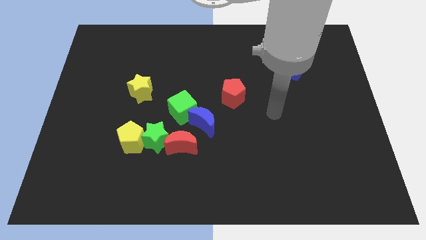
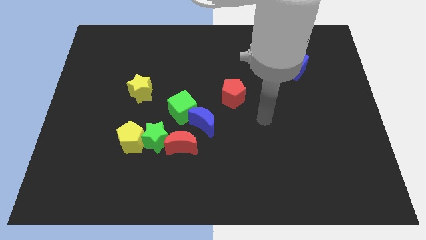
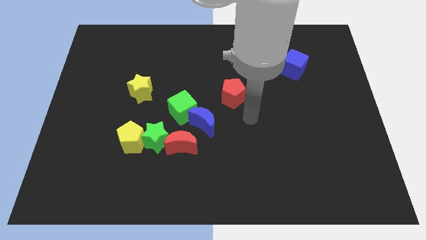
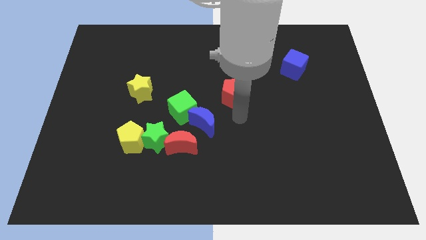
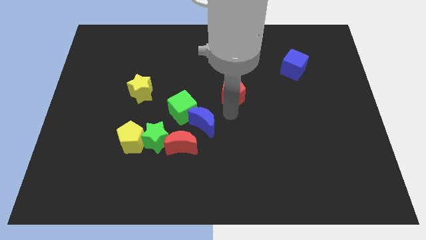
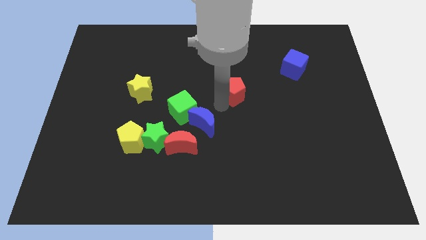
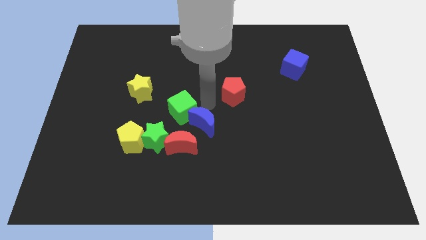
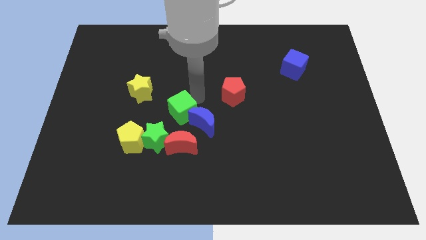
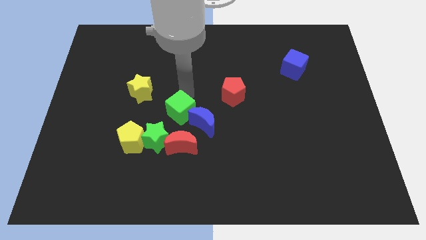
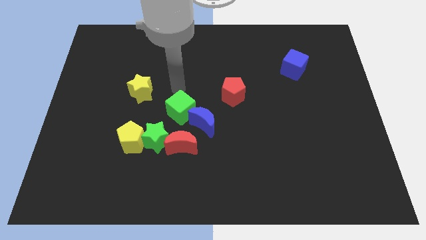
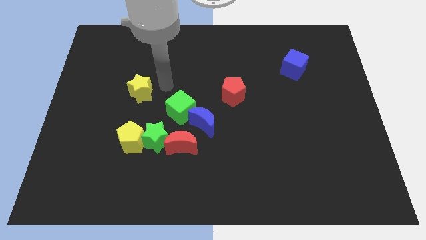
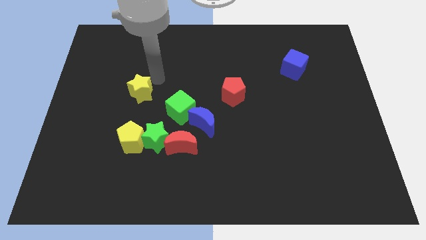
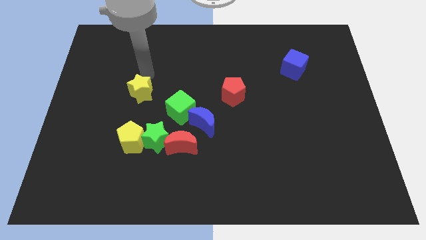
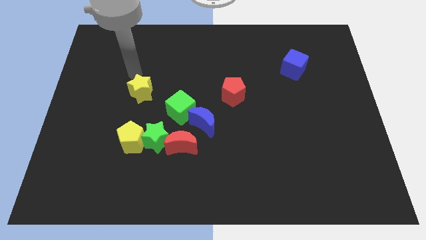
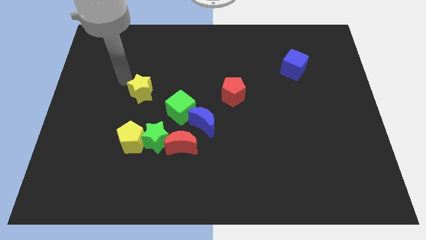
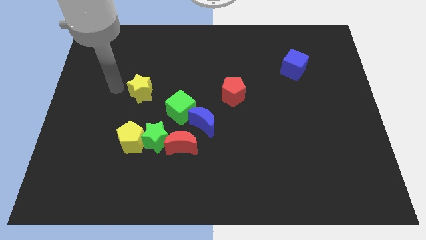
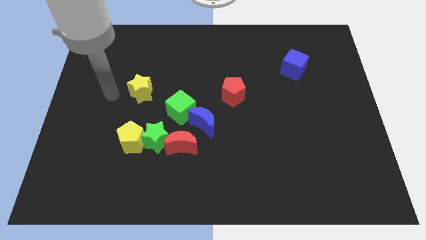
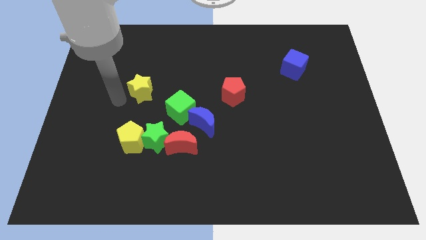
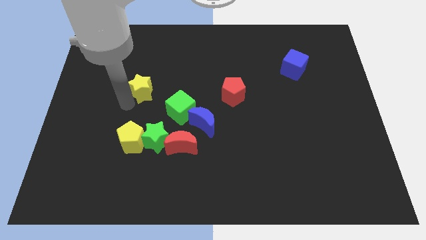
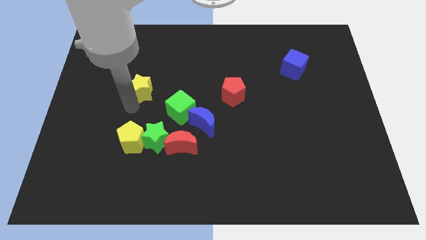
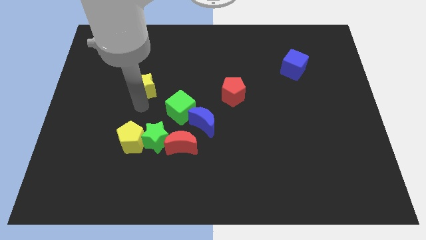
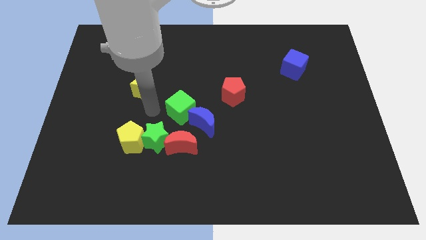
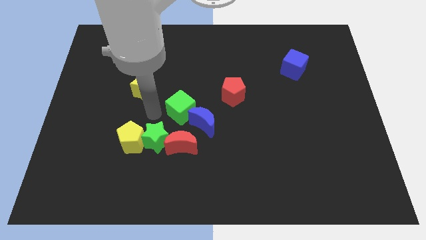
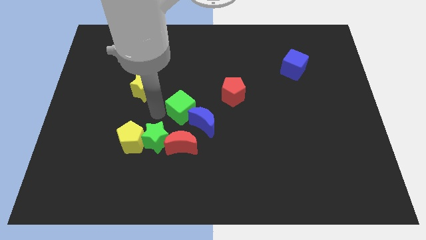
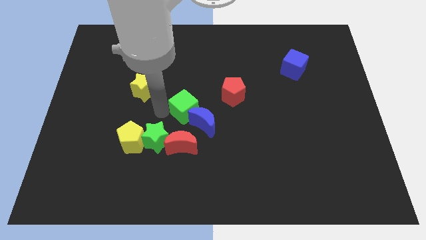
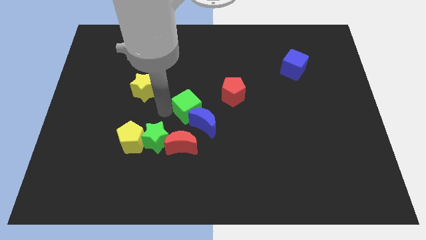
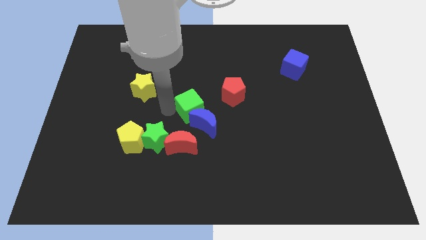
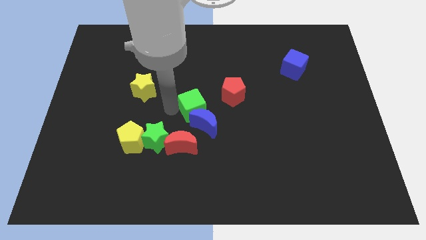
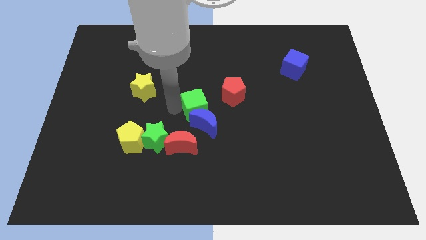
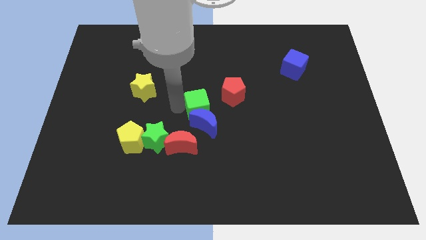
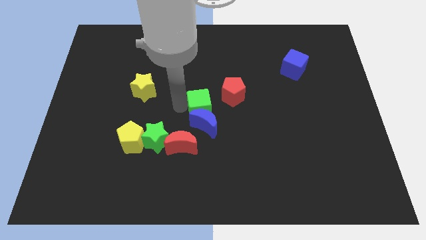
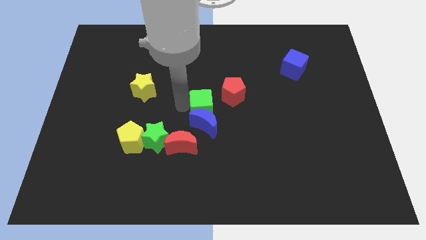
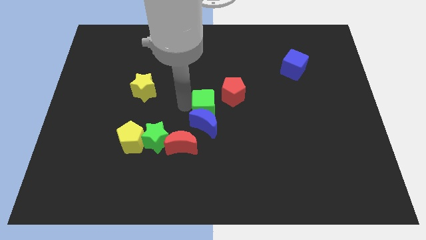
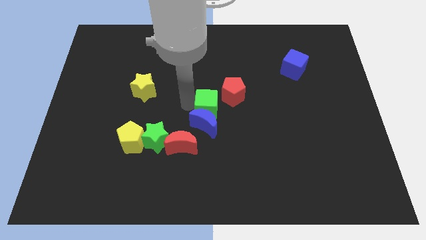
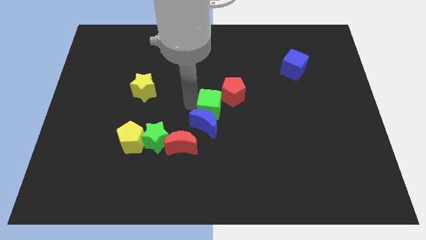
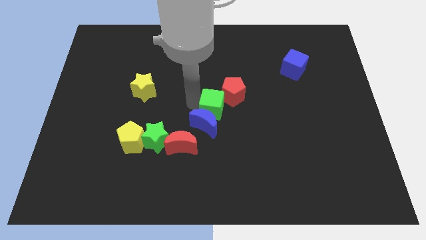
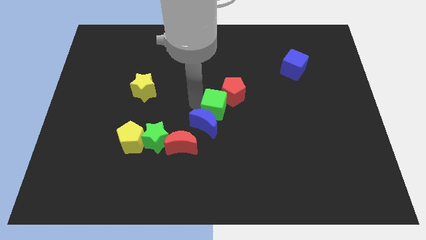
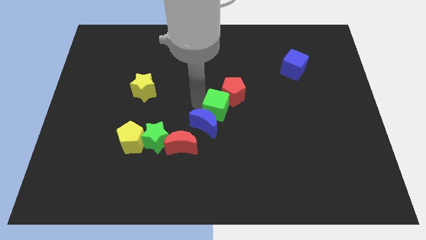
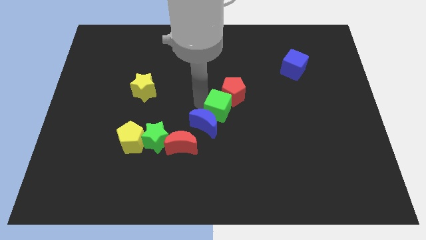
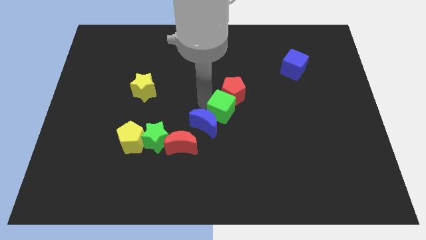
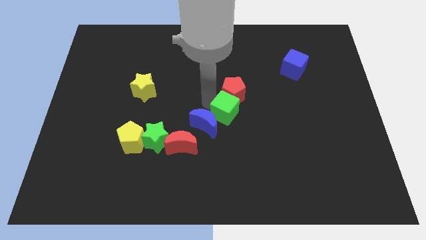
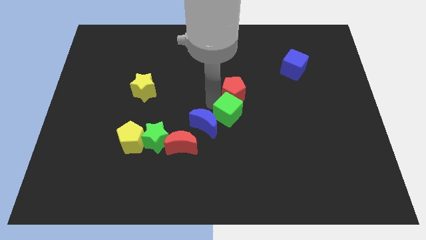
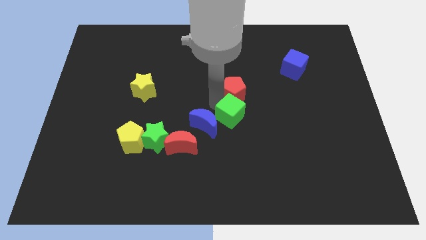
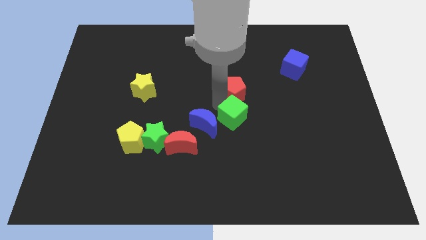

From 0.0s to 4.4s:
push the green cube down and then to the right somewhat

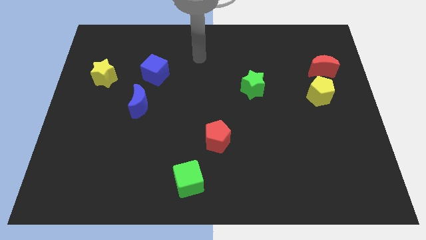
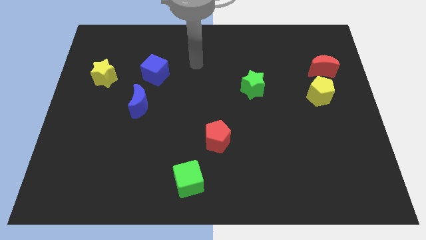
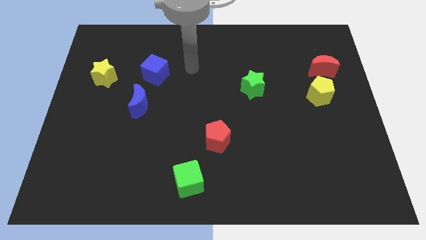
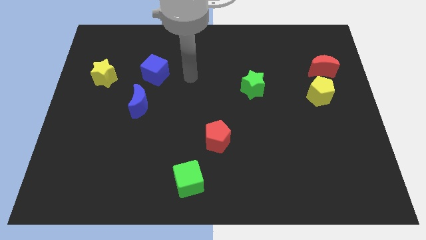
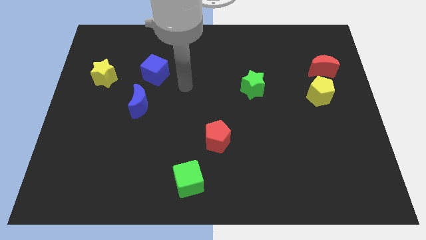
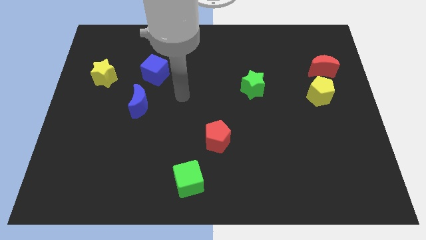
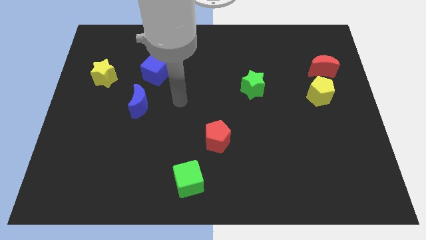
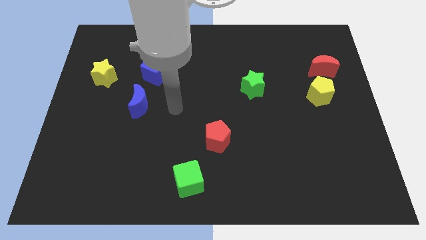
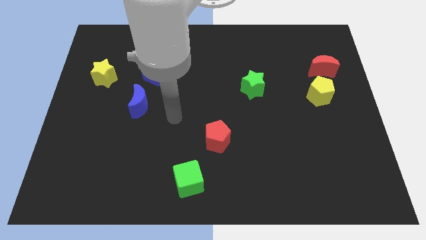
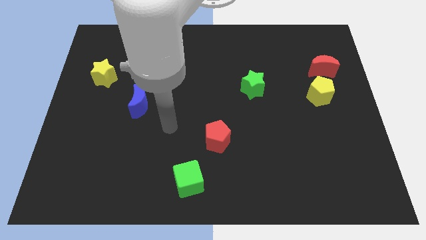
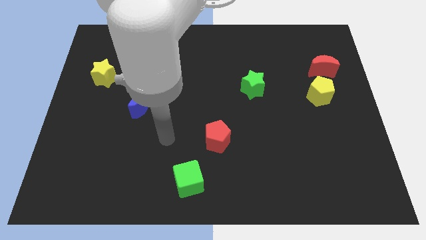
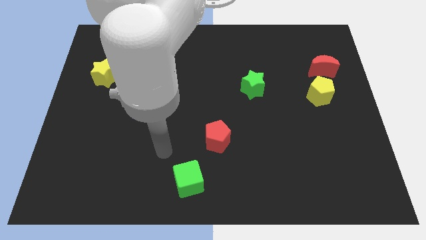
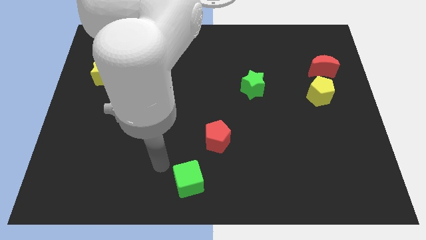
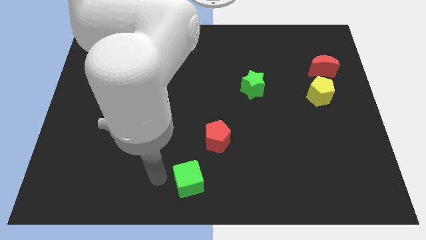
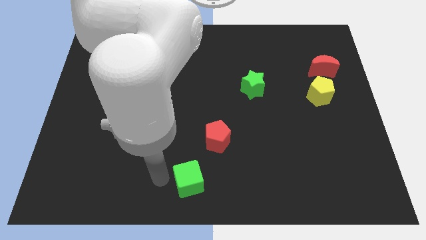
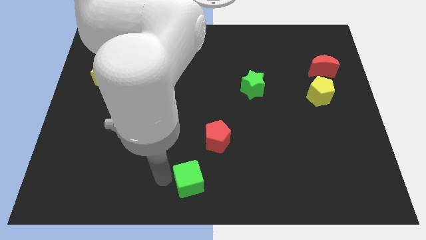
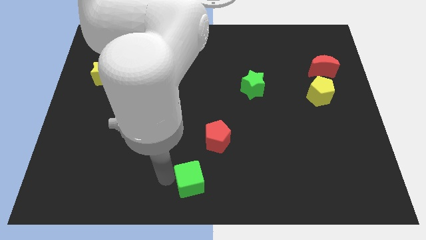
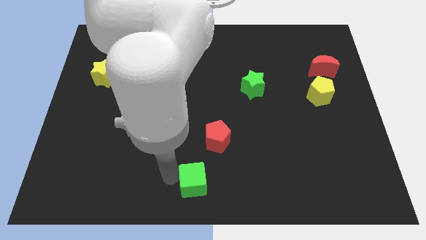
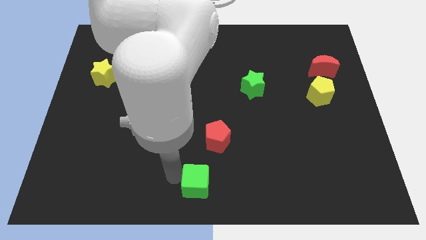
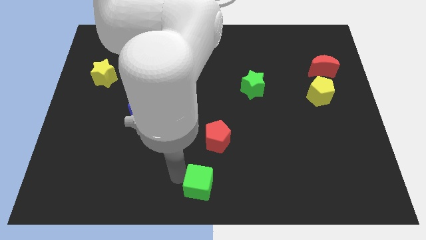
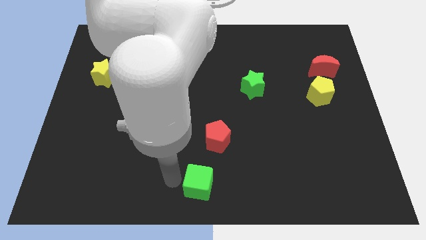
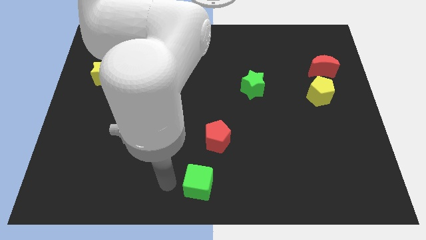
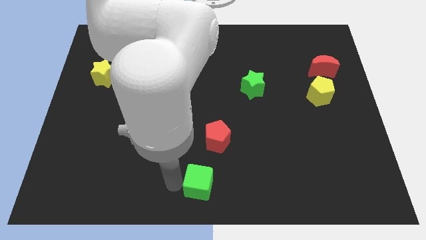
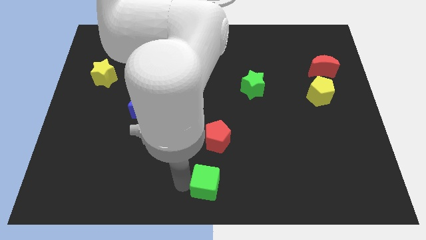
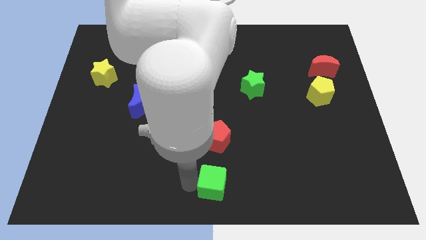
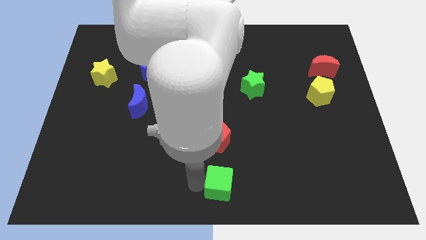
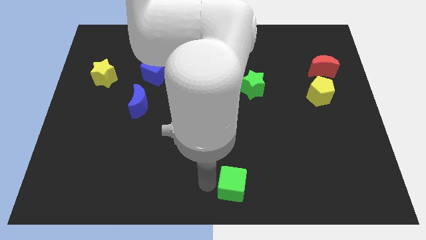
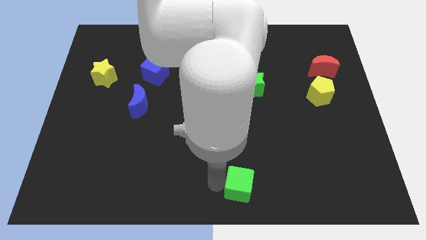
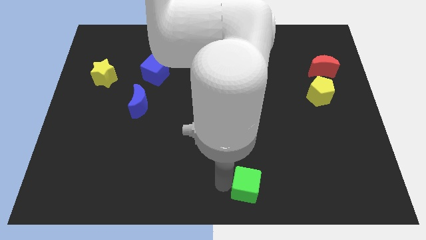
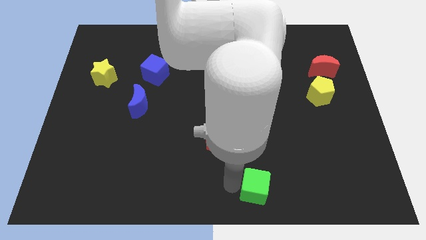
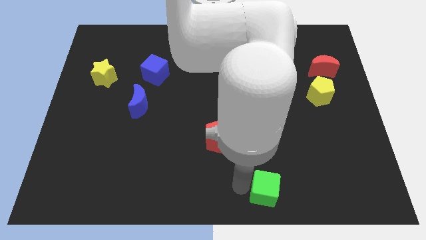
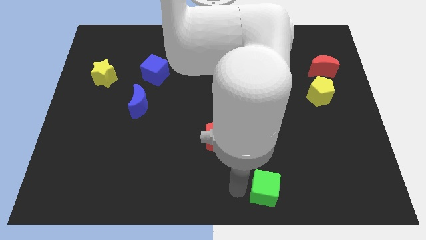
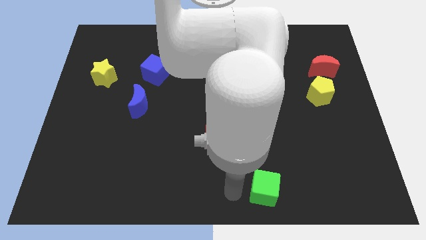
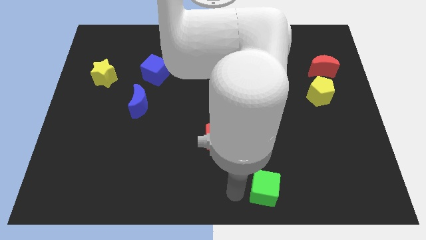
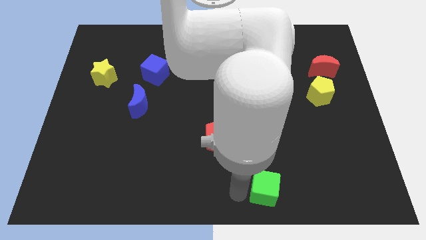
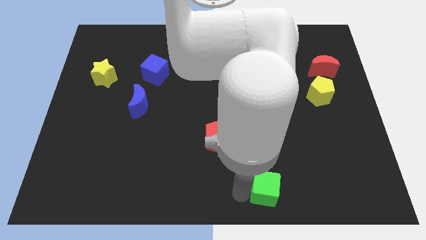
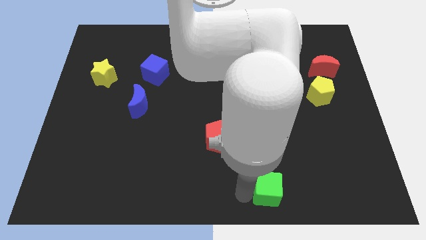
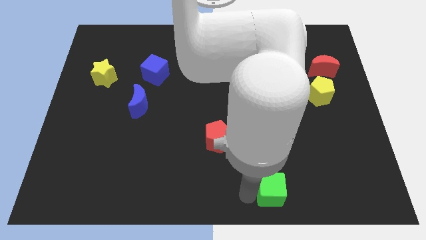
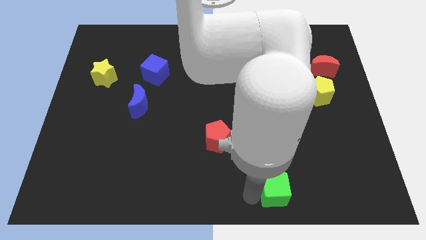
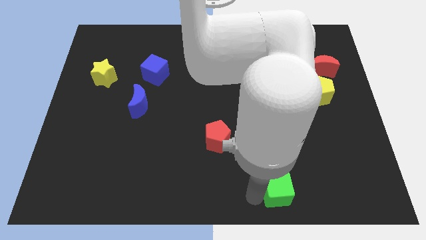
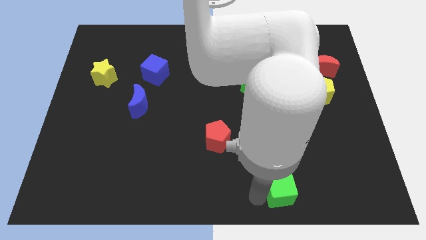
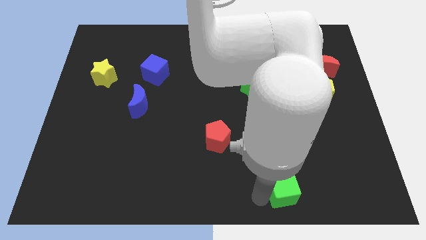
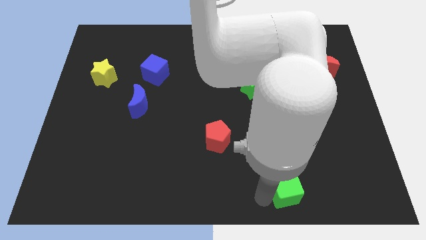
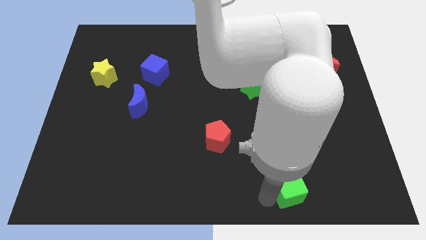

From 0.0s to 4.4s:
move the green cube to the right
